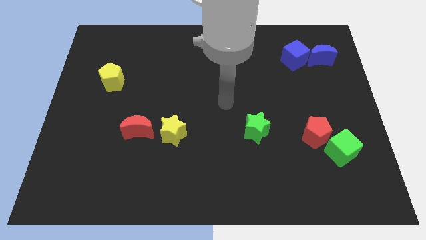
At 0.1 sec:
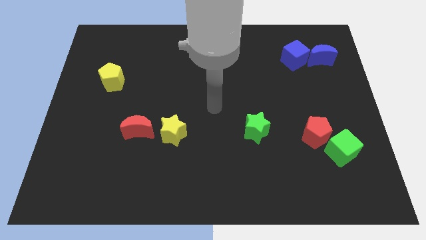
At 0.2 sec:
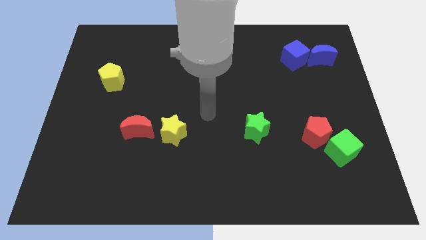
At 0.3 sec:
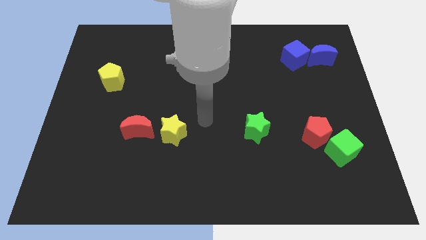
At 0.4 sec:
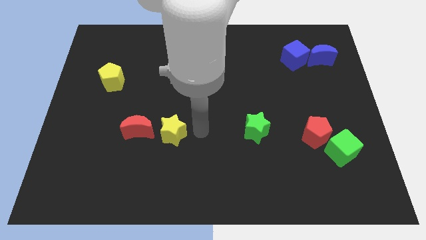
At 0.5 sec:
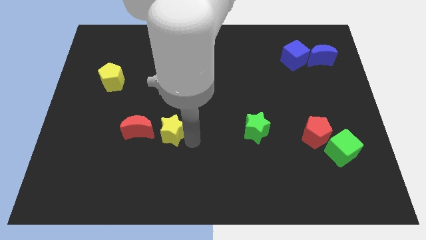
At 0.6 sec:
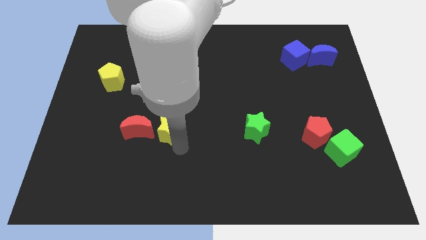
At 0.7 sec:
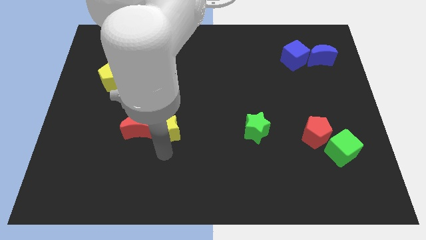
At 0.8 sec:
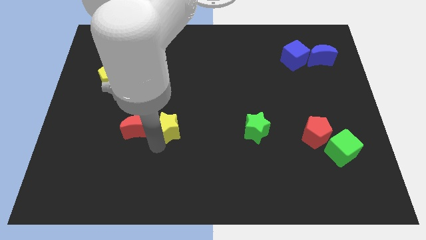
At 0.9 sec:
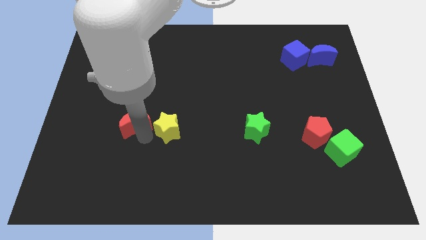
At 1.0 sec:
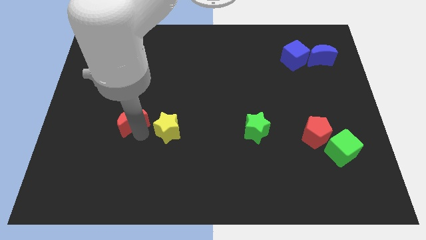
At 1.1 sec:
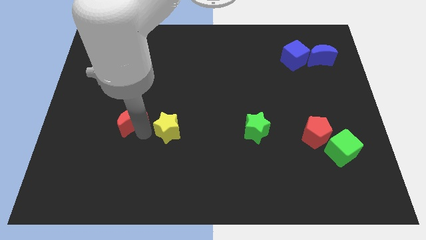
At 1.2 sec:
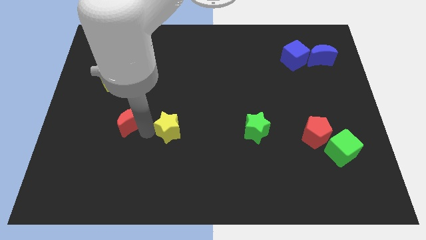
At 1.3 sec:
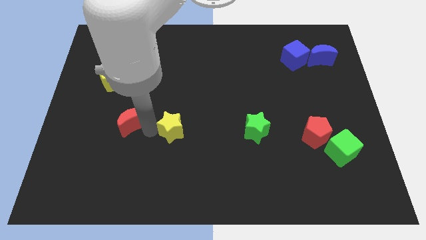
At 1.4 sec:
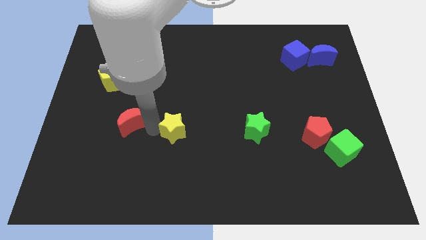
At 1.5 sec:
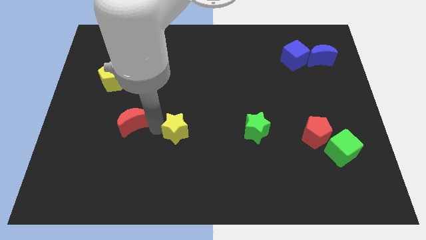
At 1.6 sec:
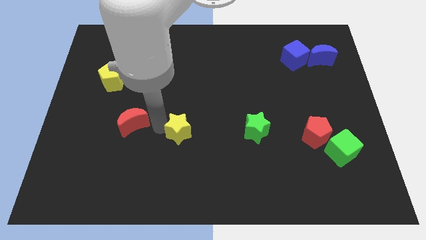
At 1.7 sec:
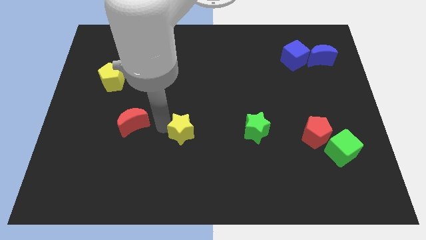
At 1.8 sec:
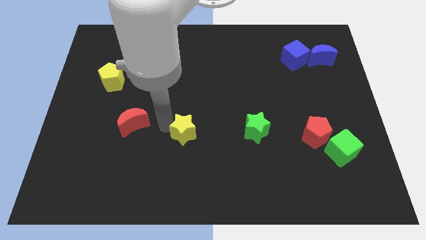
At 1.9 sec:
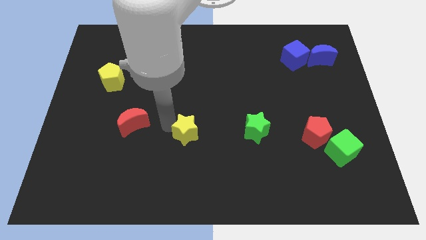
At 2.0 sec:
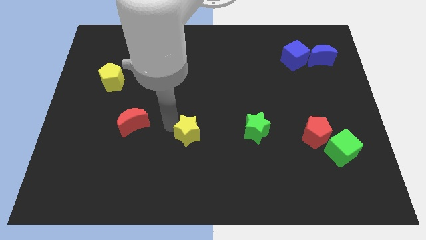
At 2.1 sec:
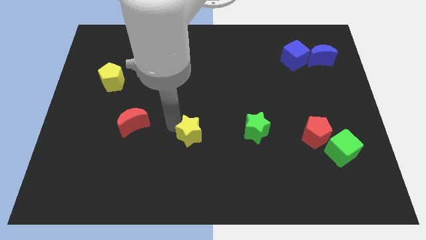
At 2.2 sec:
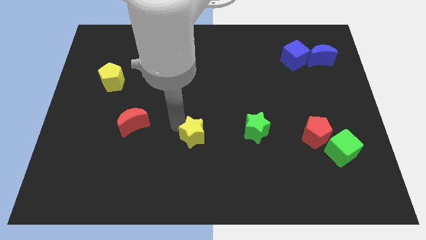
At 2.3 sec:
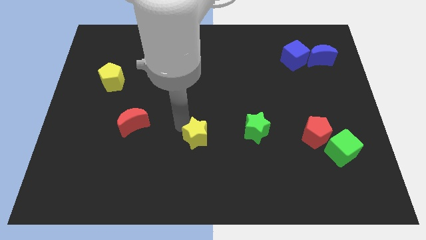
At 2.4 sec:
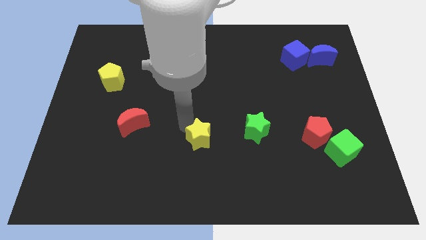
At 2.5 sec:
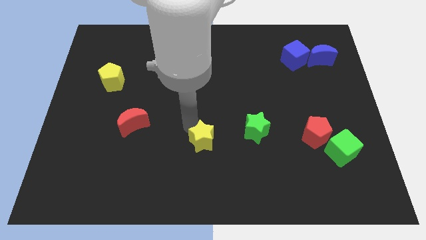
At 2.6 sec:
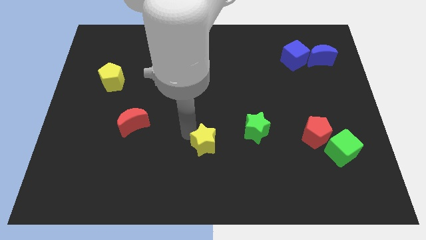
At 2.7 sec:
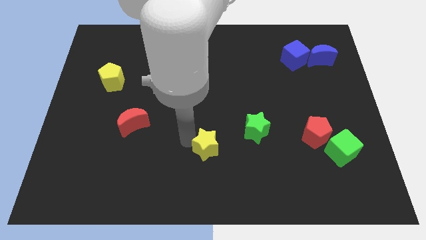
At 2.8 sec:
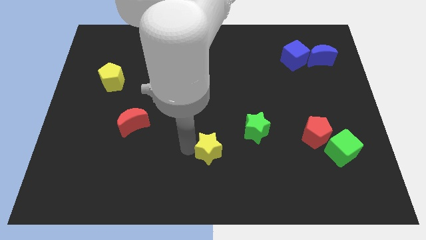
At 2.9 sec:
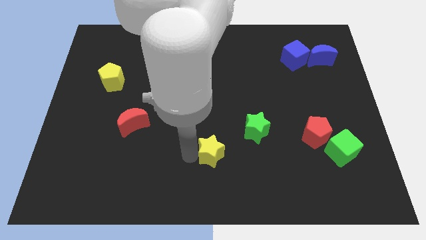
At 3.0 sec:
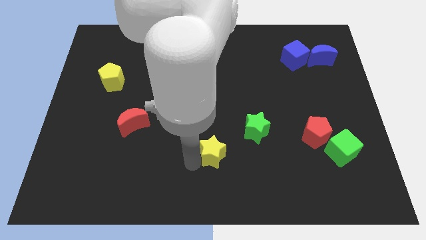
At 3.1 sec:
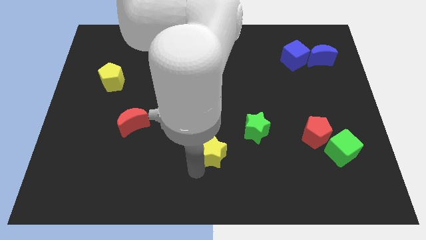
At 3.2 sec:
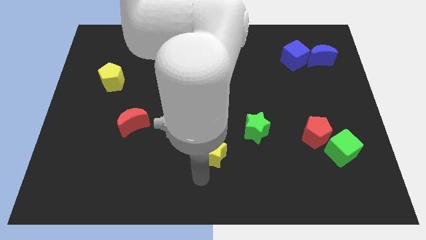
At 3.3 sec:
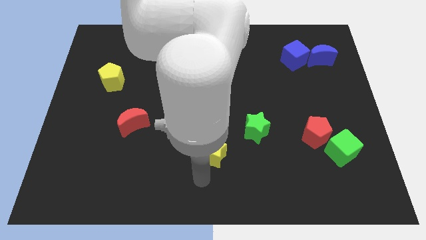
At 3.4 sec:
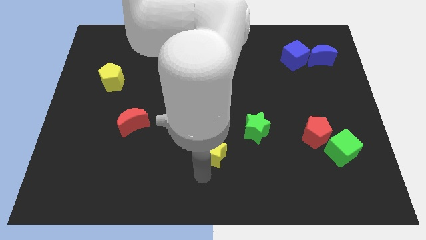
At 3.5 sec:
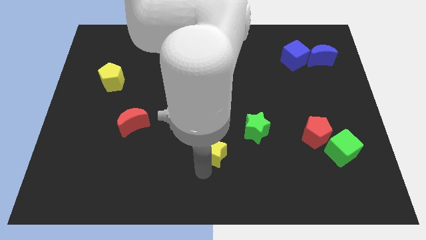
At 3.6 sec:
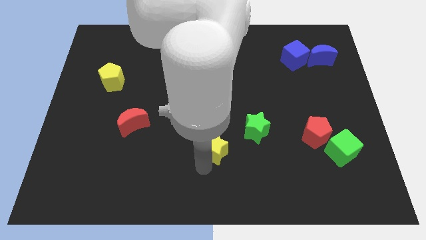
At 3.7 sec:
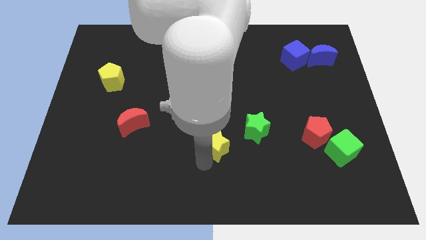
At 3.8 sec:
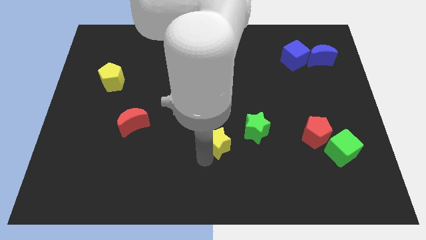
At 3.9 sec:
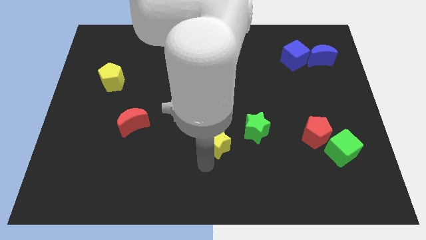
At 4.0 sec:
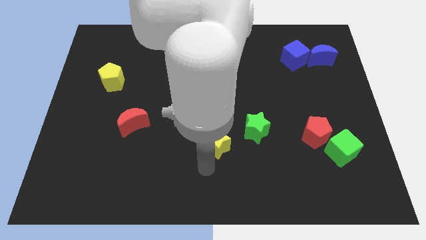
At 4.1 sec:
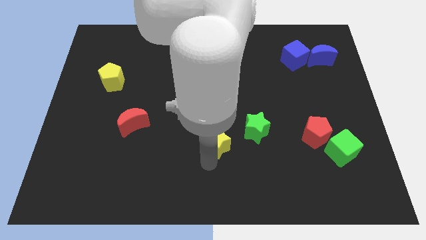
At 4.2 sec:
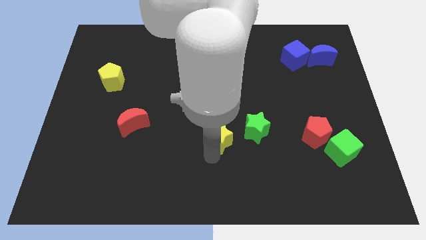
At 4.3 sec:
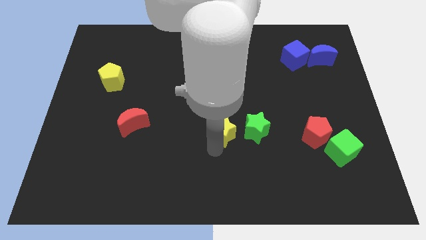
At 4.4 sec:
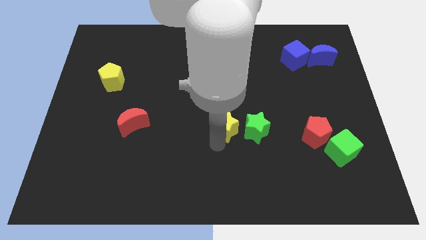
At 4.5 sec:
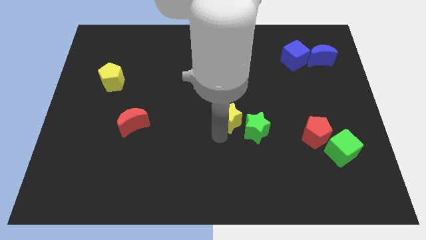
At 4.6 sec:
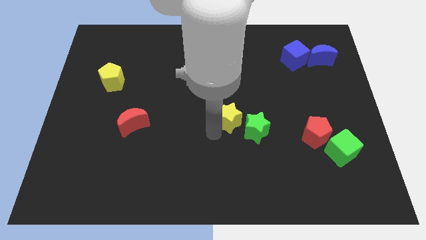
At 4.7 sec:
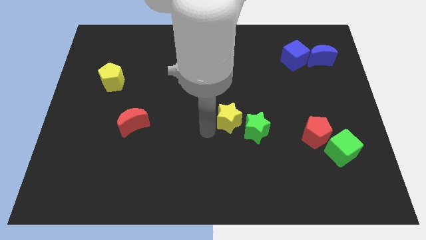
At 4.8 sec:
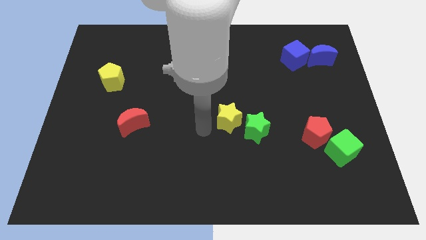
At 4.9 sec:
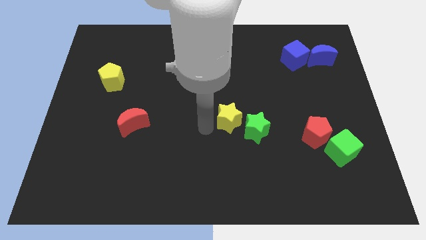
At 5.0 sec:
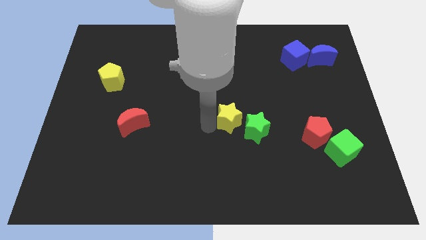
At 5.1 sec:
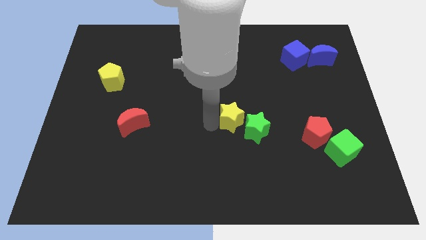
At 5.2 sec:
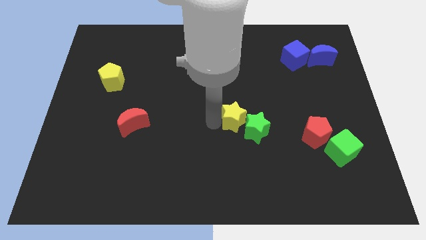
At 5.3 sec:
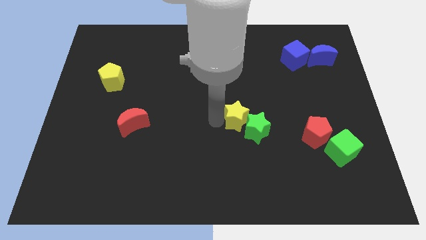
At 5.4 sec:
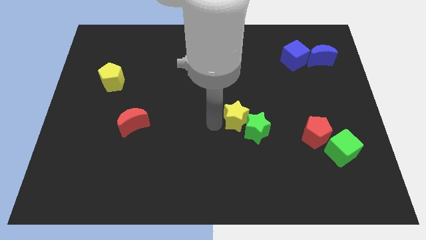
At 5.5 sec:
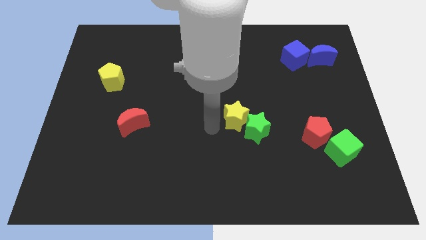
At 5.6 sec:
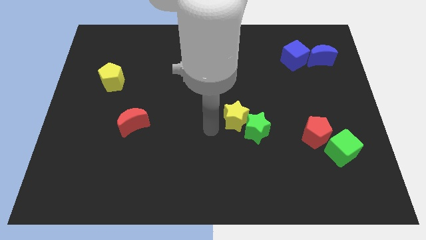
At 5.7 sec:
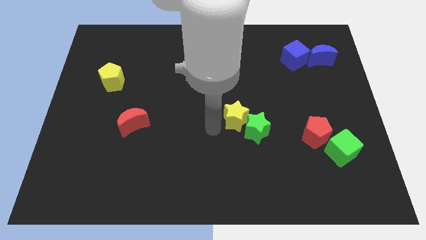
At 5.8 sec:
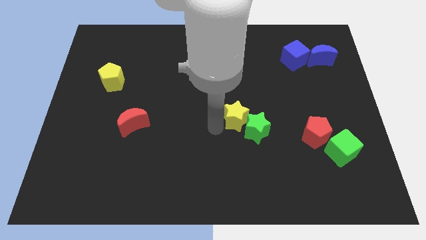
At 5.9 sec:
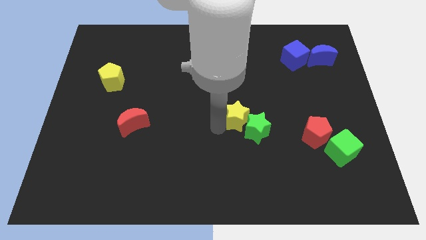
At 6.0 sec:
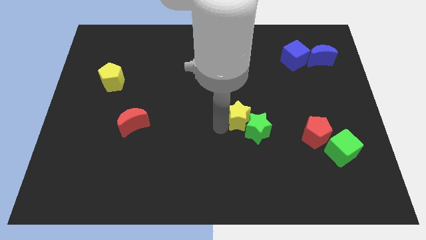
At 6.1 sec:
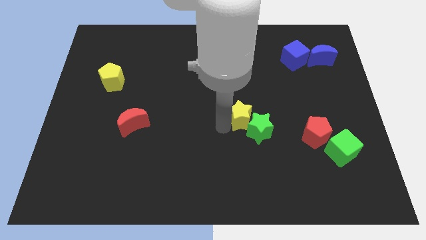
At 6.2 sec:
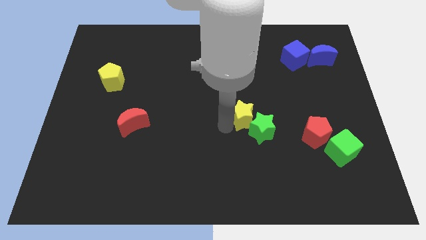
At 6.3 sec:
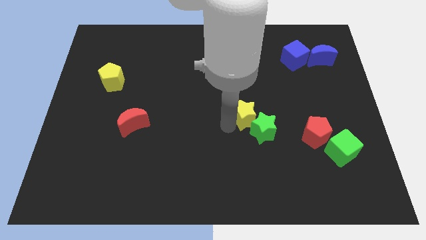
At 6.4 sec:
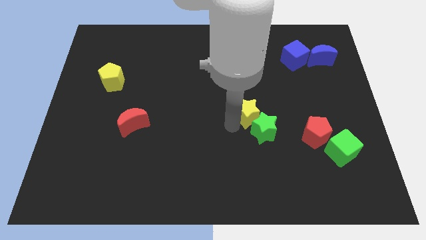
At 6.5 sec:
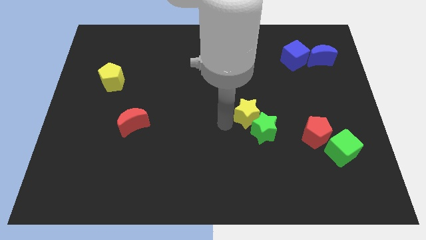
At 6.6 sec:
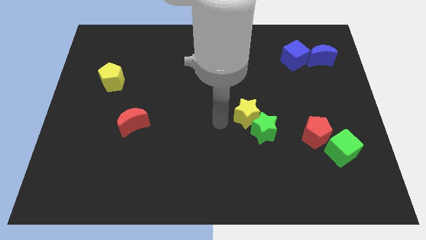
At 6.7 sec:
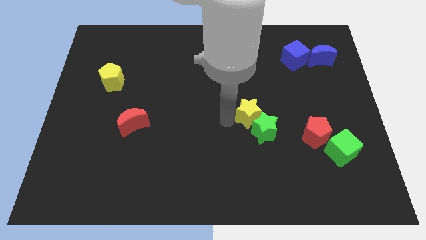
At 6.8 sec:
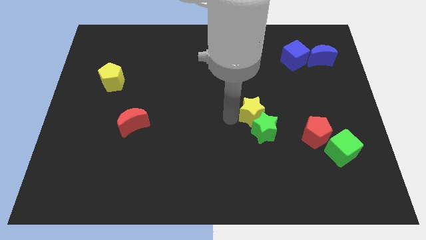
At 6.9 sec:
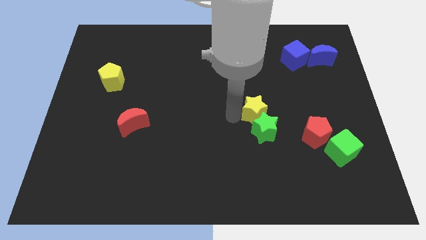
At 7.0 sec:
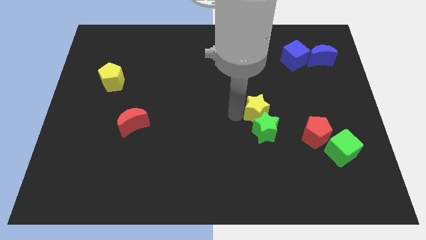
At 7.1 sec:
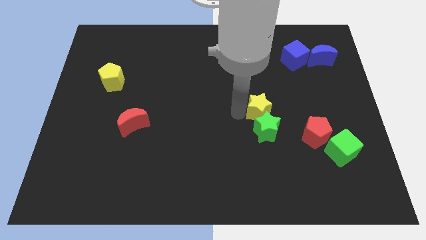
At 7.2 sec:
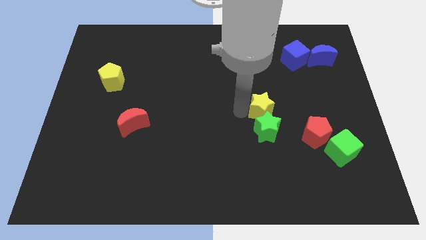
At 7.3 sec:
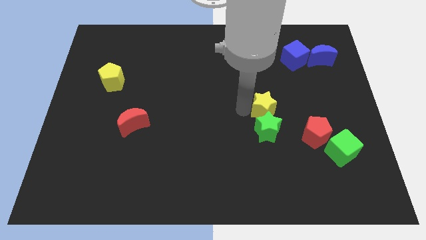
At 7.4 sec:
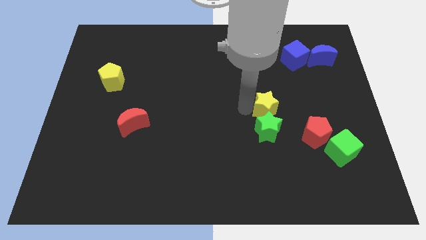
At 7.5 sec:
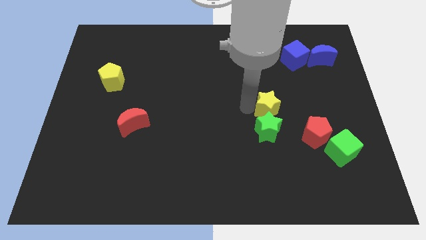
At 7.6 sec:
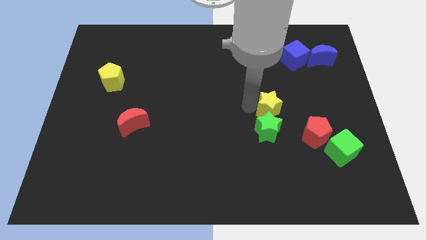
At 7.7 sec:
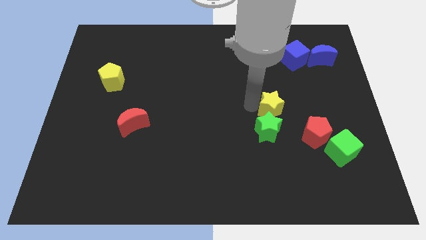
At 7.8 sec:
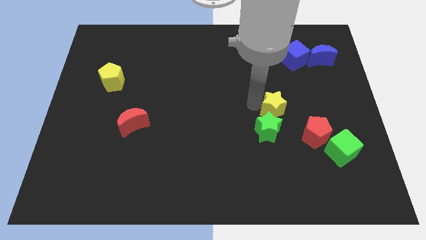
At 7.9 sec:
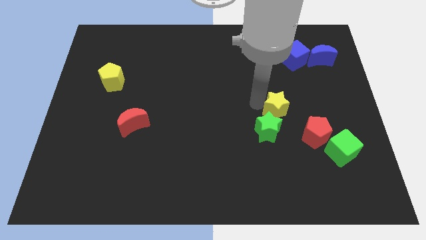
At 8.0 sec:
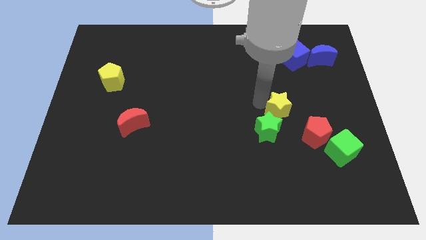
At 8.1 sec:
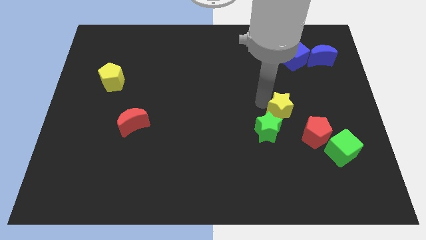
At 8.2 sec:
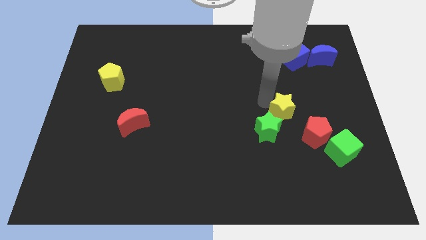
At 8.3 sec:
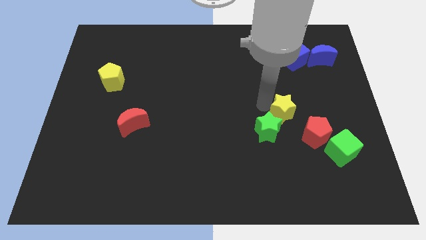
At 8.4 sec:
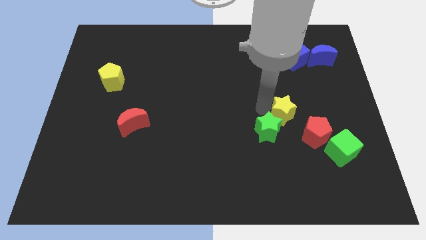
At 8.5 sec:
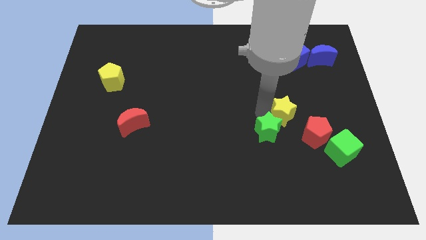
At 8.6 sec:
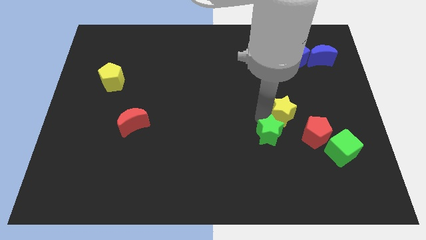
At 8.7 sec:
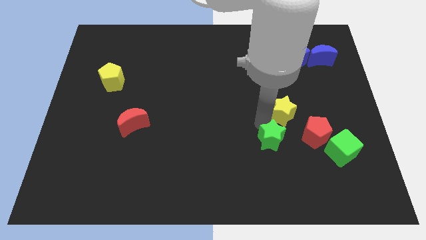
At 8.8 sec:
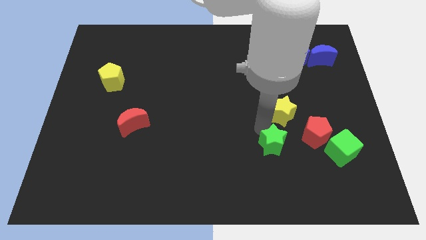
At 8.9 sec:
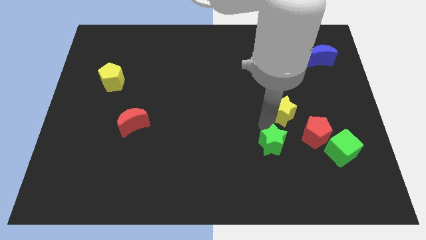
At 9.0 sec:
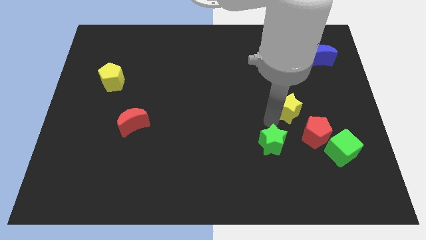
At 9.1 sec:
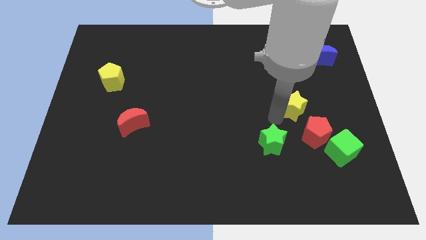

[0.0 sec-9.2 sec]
move the yellow star to the top of the red pentagon
